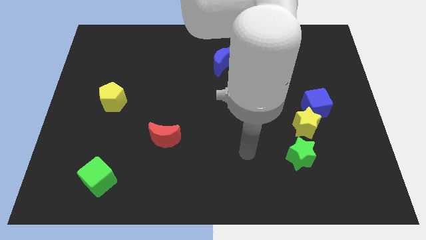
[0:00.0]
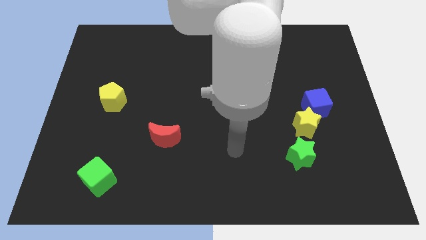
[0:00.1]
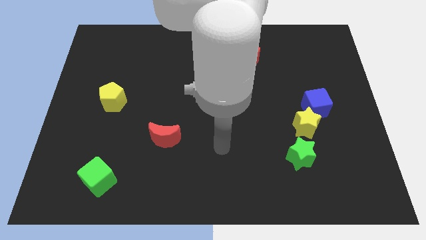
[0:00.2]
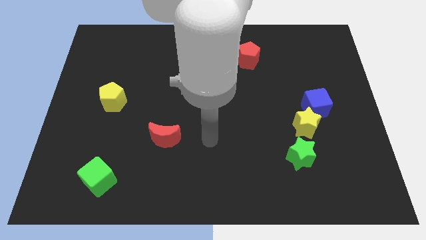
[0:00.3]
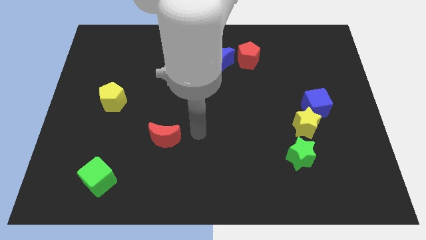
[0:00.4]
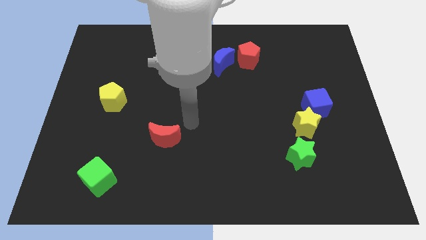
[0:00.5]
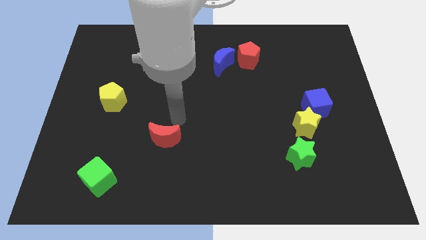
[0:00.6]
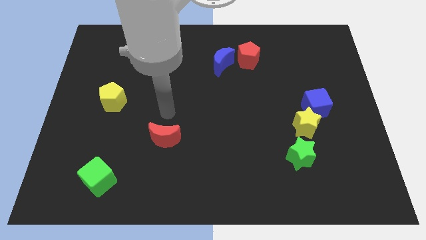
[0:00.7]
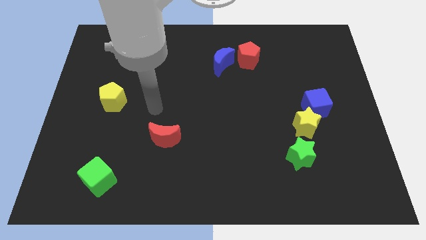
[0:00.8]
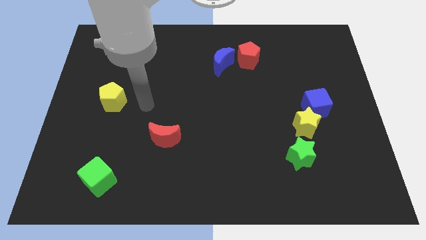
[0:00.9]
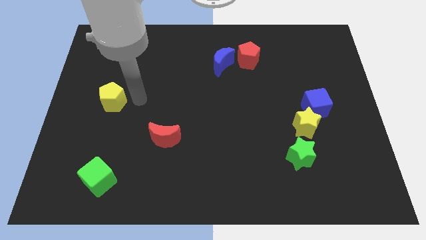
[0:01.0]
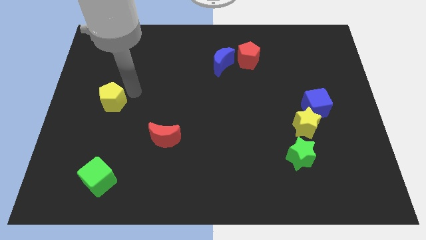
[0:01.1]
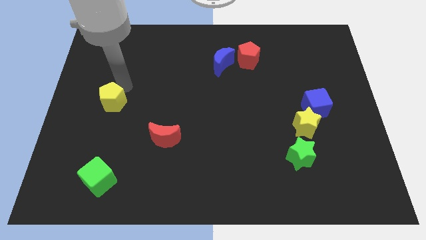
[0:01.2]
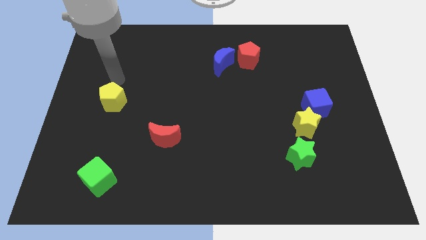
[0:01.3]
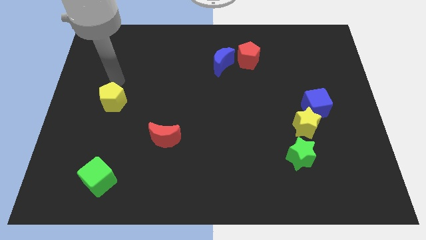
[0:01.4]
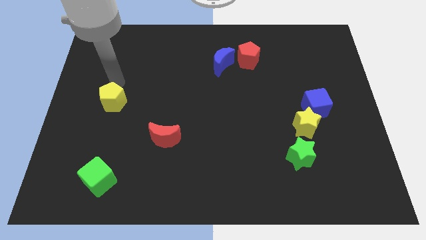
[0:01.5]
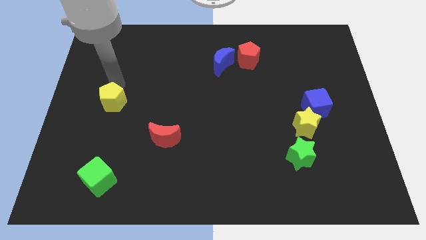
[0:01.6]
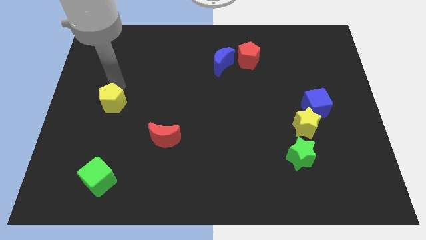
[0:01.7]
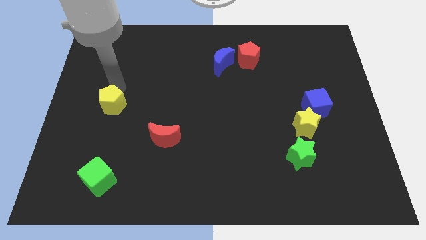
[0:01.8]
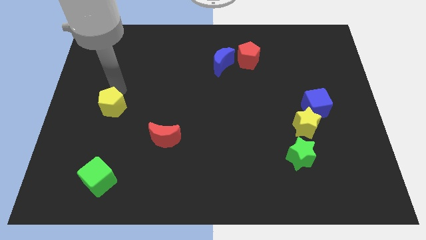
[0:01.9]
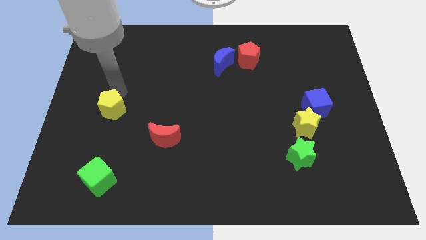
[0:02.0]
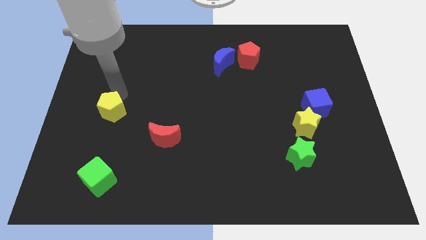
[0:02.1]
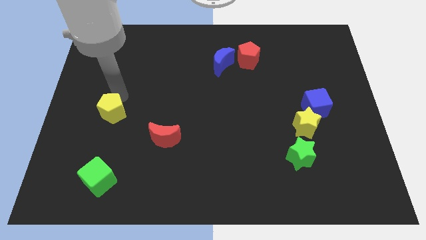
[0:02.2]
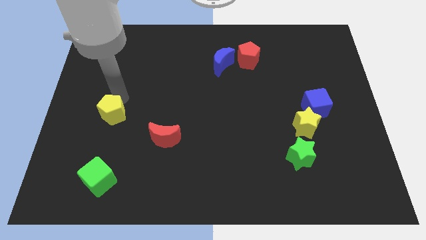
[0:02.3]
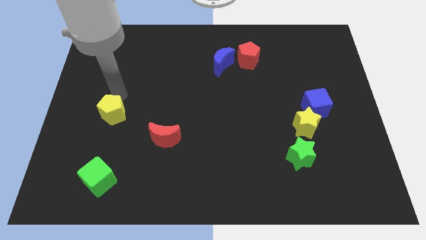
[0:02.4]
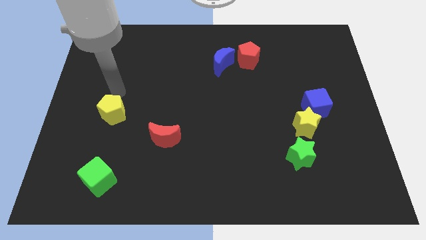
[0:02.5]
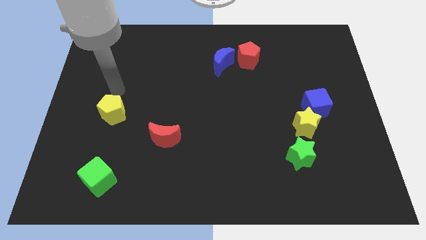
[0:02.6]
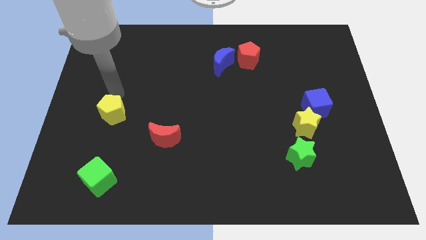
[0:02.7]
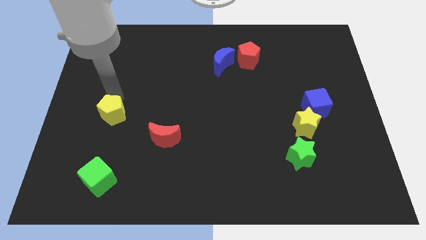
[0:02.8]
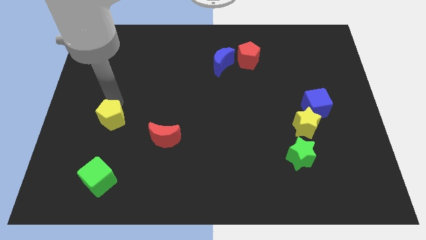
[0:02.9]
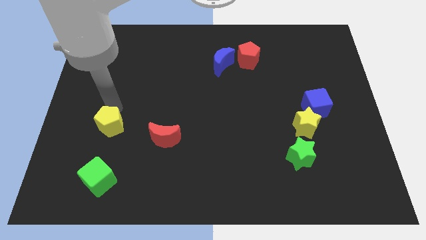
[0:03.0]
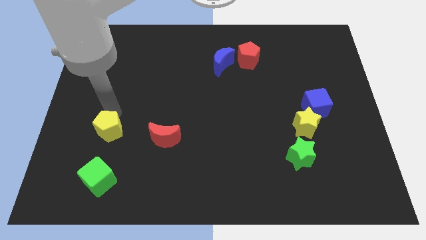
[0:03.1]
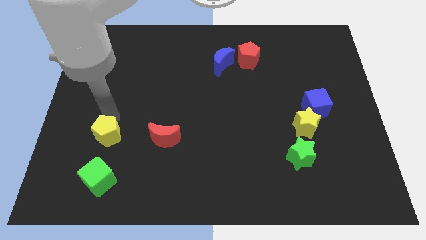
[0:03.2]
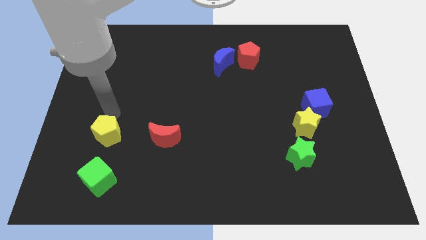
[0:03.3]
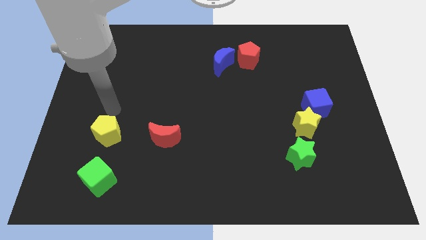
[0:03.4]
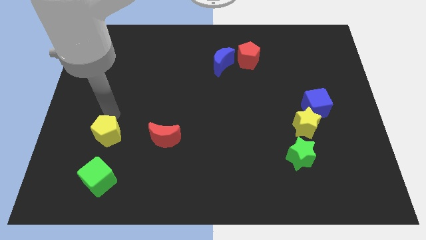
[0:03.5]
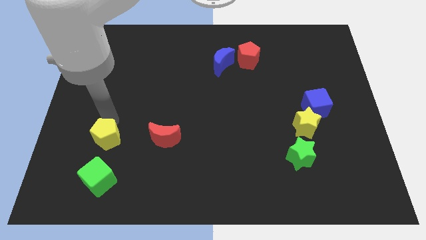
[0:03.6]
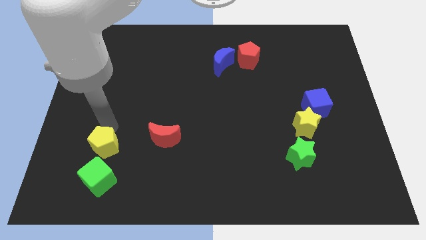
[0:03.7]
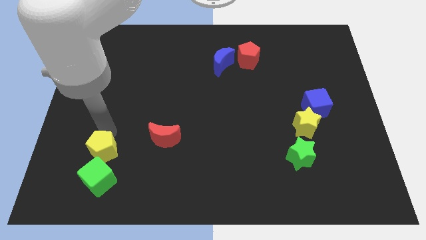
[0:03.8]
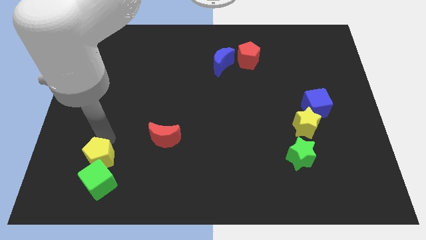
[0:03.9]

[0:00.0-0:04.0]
push the yellow pentagon to the green cube

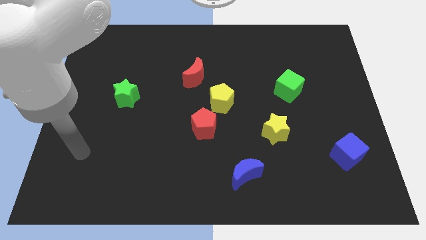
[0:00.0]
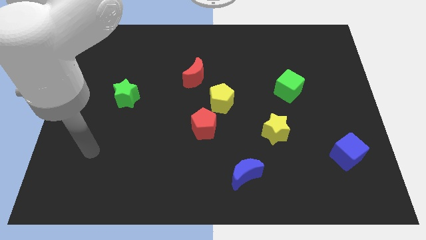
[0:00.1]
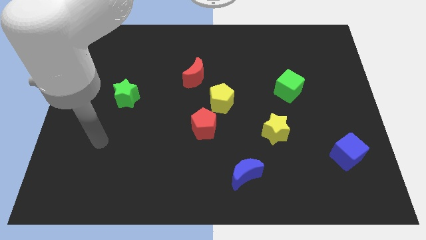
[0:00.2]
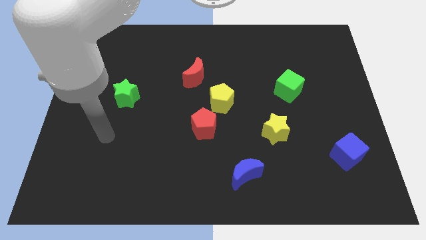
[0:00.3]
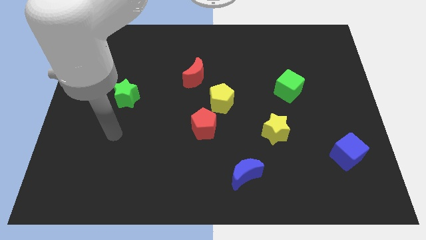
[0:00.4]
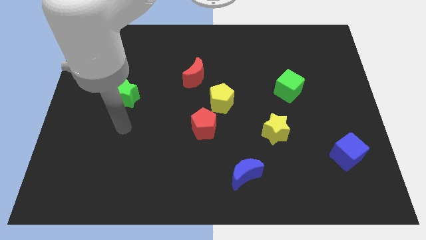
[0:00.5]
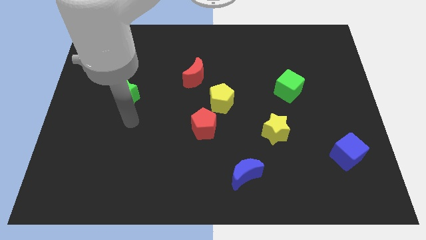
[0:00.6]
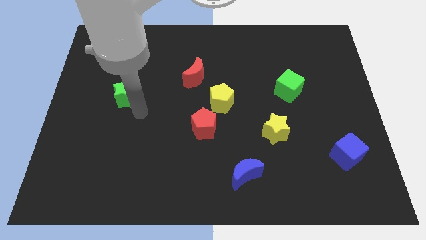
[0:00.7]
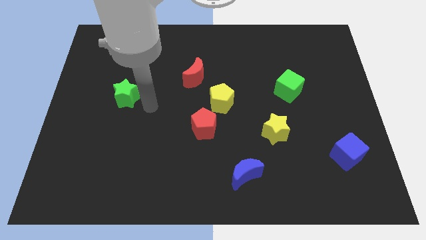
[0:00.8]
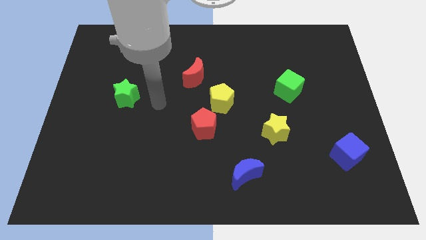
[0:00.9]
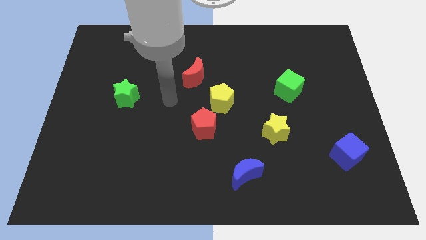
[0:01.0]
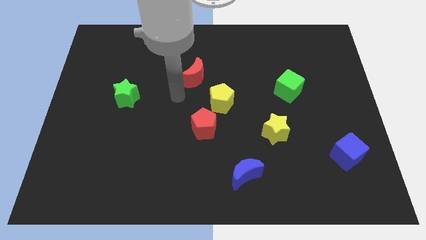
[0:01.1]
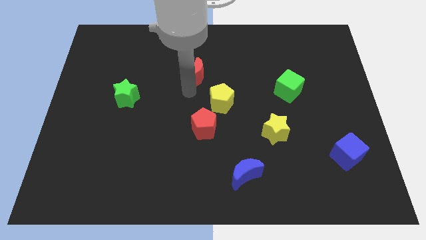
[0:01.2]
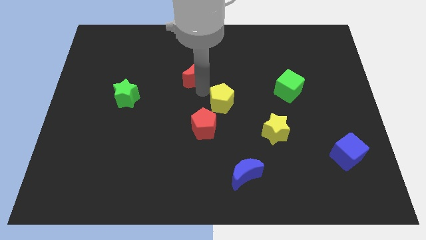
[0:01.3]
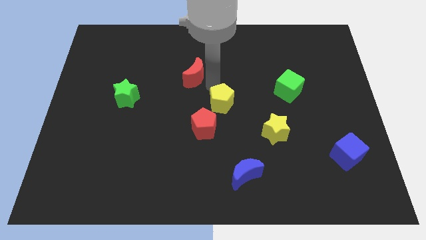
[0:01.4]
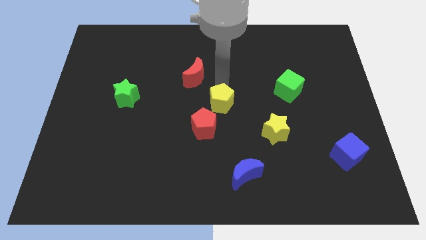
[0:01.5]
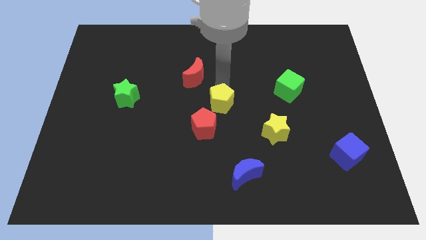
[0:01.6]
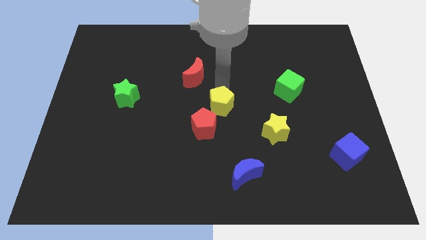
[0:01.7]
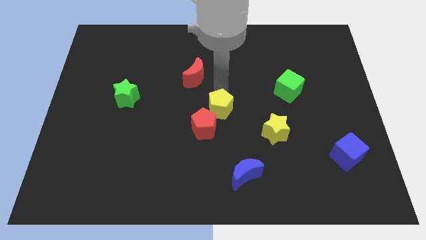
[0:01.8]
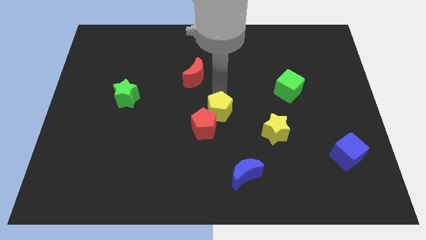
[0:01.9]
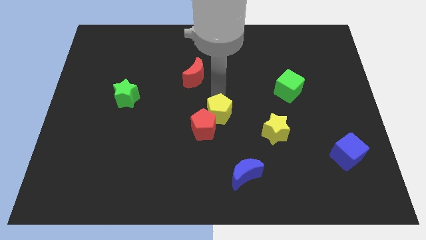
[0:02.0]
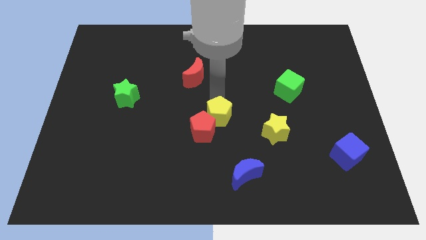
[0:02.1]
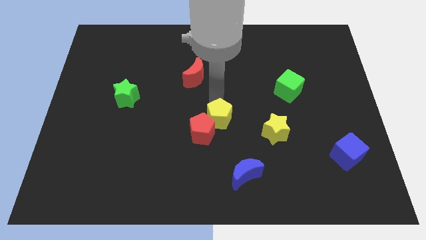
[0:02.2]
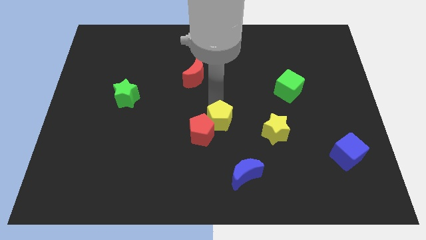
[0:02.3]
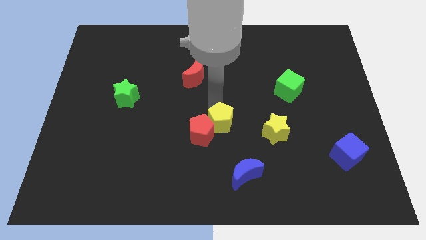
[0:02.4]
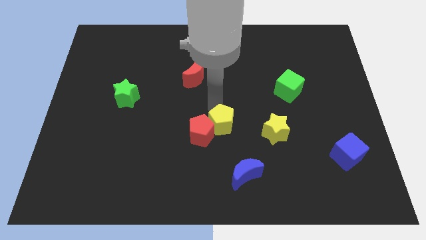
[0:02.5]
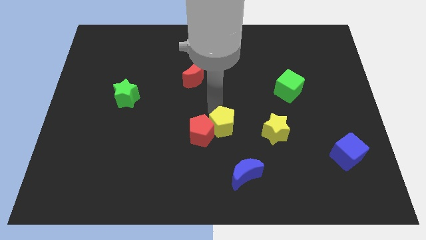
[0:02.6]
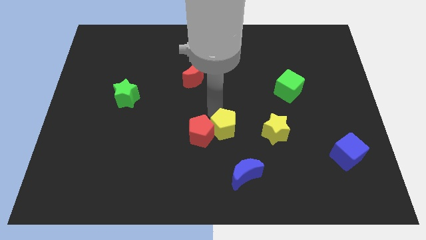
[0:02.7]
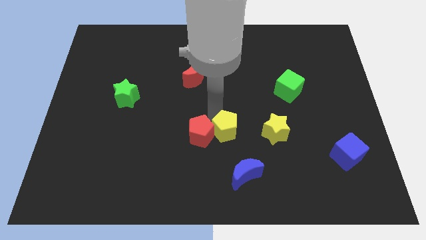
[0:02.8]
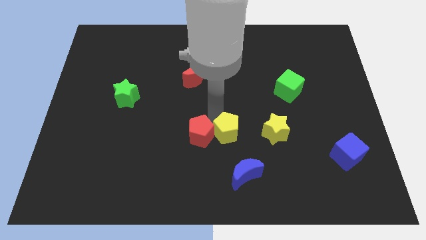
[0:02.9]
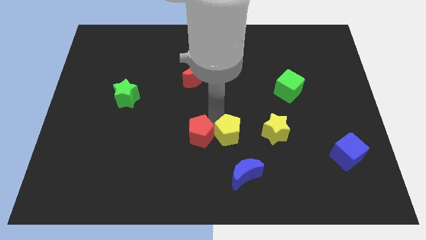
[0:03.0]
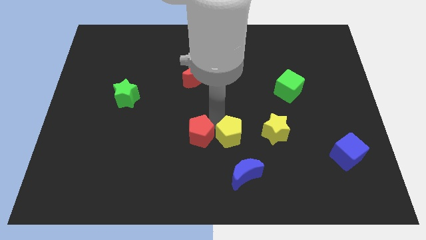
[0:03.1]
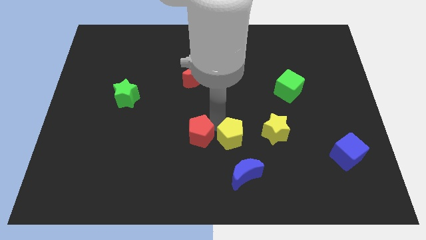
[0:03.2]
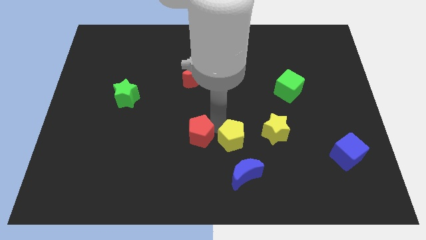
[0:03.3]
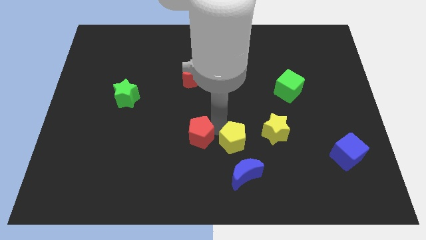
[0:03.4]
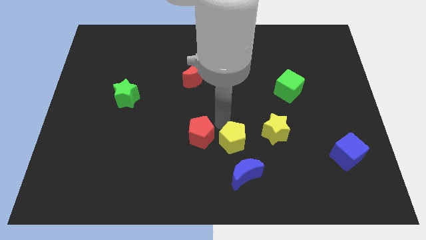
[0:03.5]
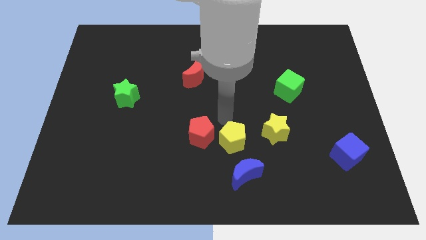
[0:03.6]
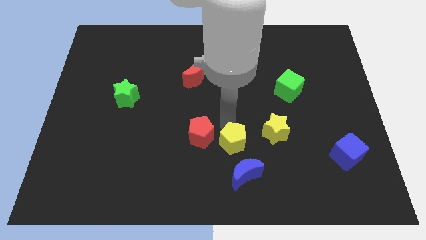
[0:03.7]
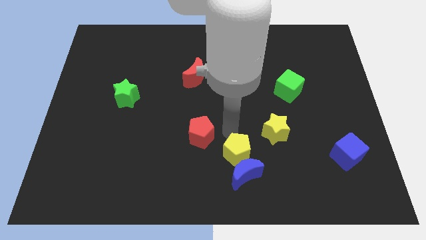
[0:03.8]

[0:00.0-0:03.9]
put the yellow pentagon towards the blue moon

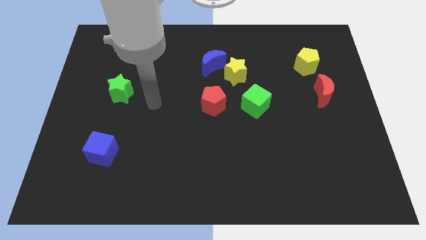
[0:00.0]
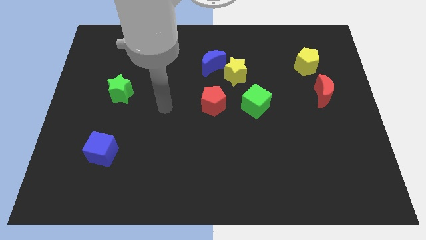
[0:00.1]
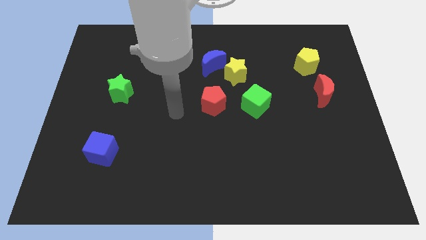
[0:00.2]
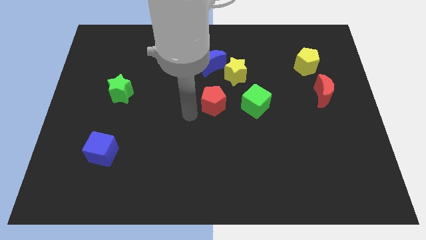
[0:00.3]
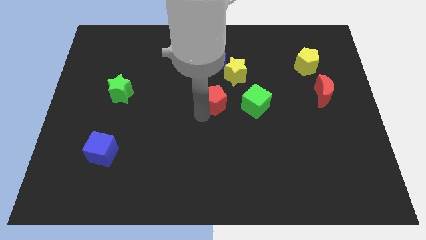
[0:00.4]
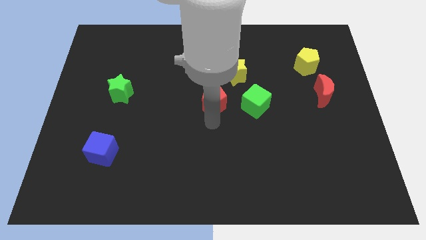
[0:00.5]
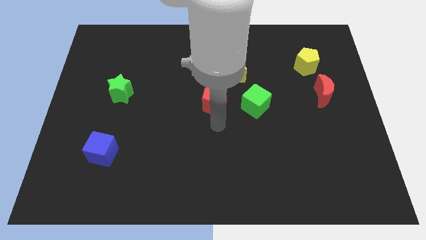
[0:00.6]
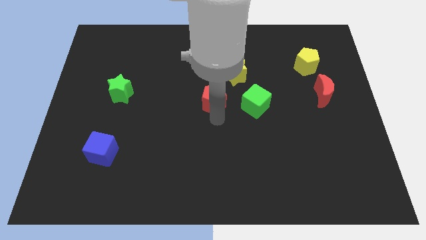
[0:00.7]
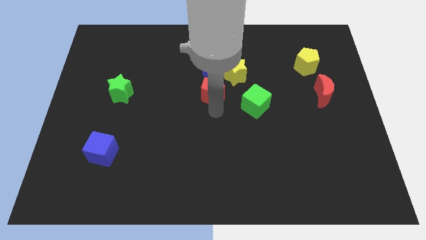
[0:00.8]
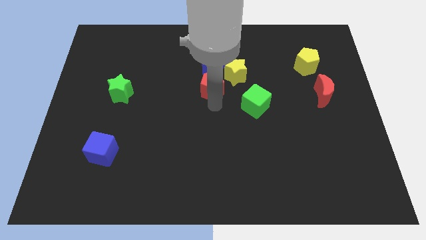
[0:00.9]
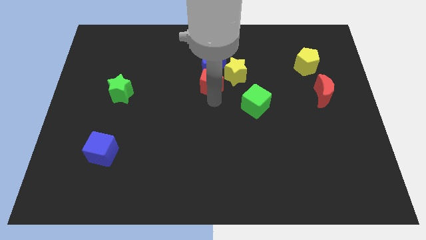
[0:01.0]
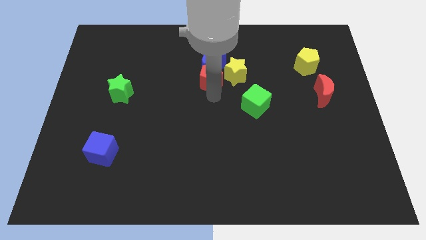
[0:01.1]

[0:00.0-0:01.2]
slide the red pentagon to the blue moon
